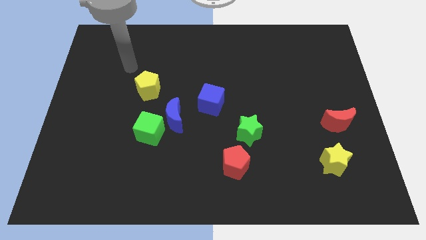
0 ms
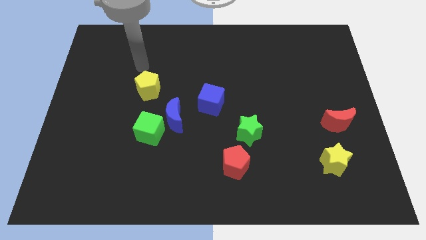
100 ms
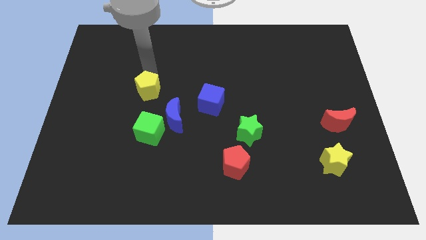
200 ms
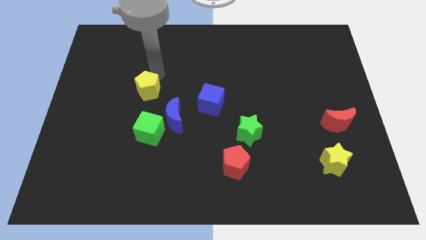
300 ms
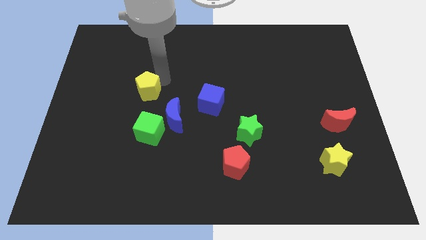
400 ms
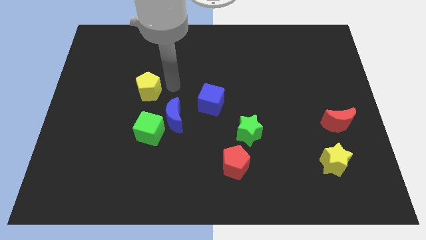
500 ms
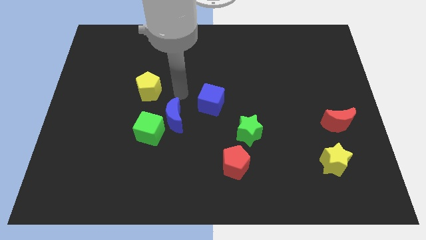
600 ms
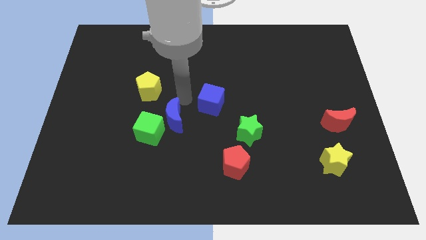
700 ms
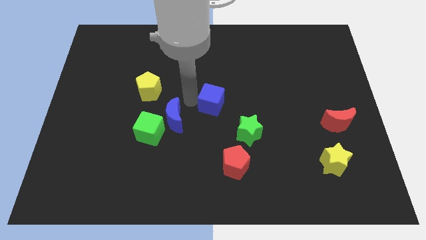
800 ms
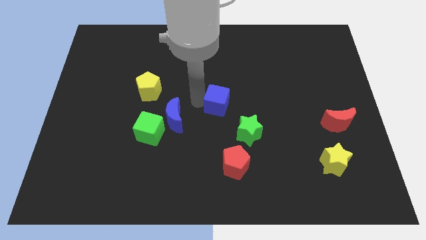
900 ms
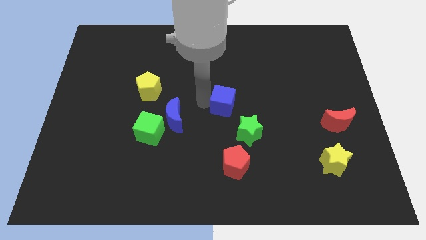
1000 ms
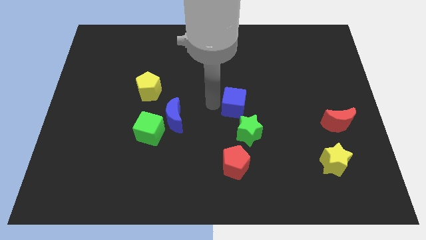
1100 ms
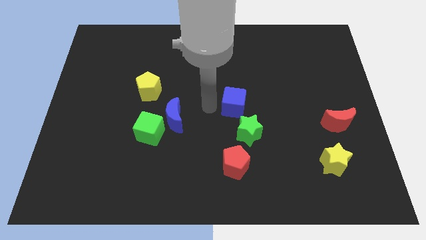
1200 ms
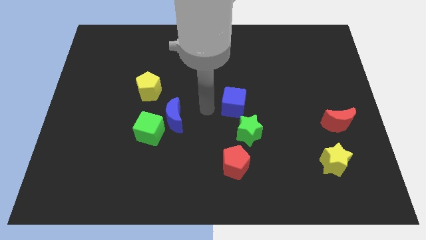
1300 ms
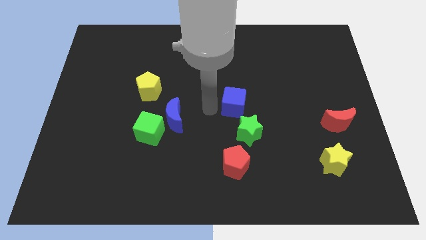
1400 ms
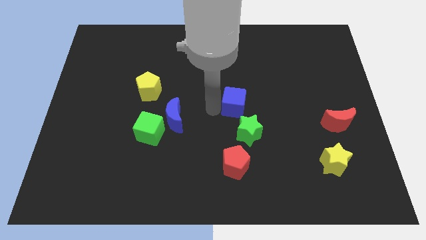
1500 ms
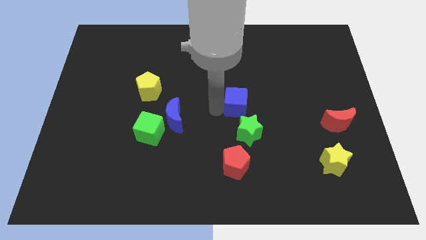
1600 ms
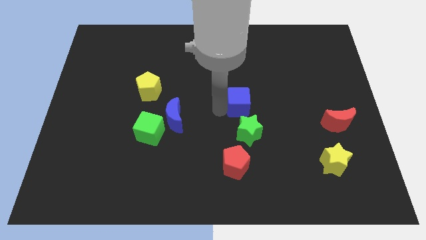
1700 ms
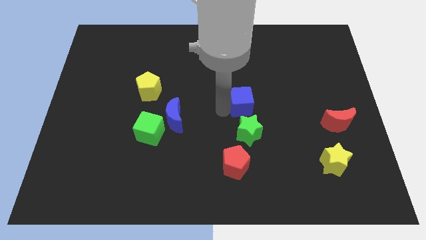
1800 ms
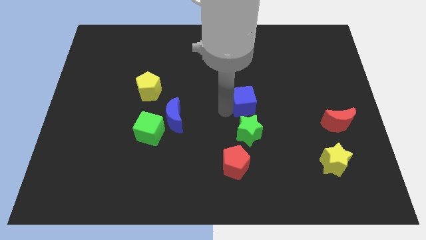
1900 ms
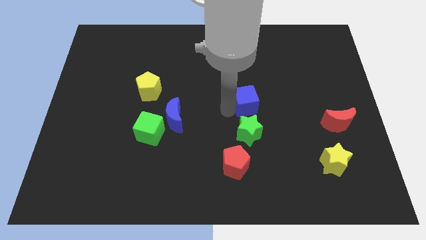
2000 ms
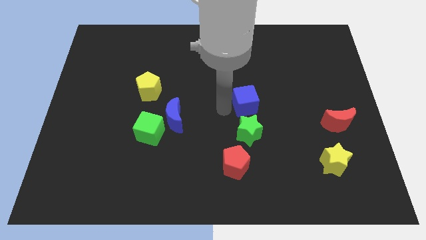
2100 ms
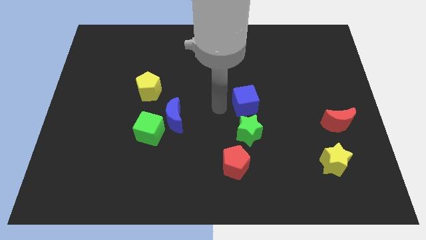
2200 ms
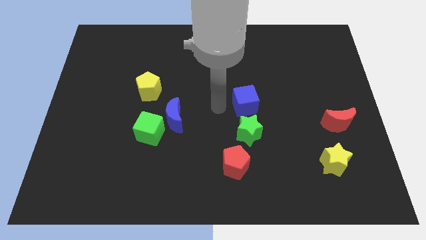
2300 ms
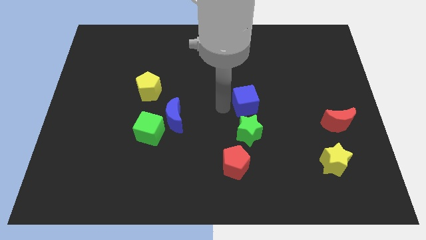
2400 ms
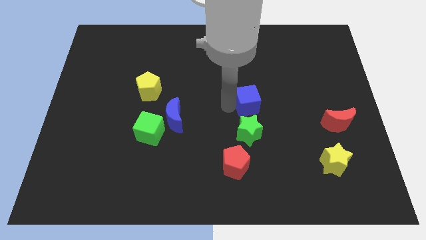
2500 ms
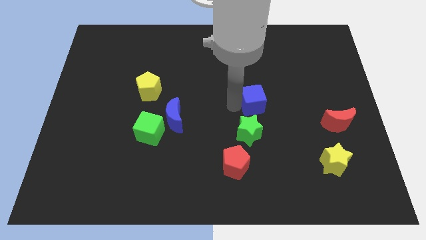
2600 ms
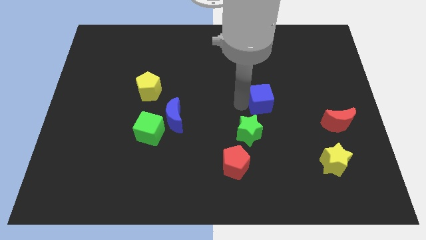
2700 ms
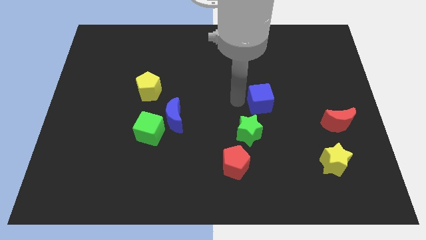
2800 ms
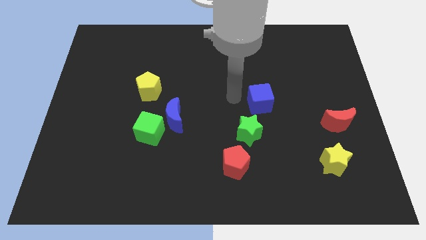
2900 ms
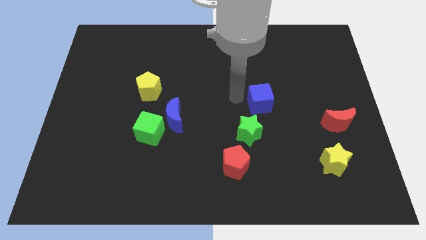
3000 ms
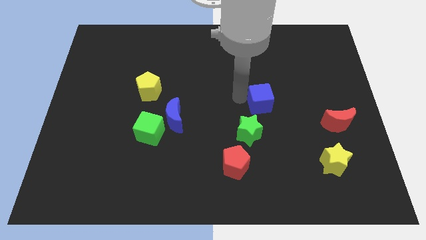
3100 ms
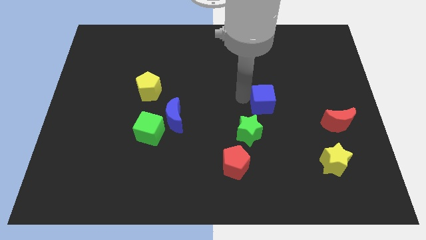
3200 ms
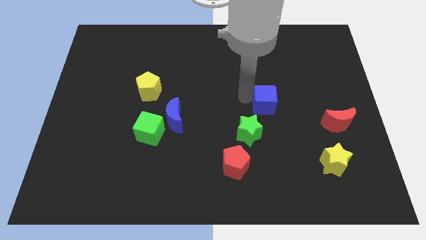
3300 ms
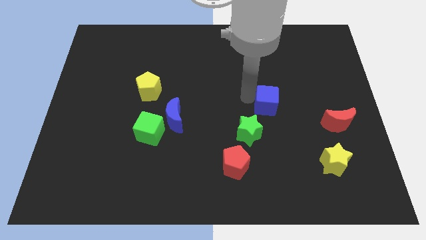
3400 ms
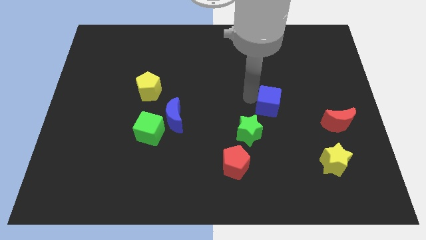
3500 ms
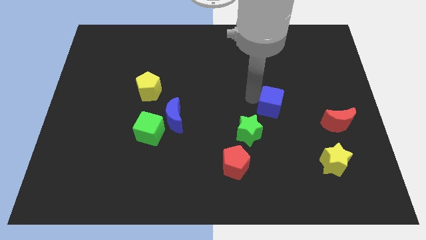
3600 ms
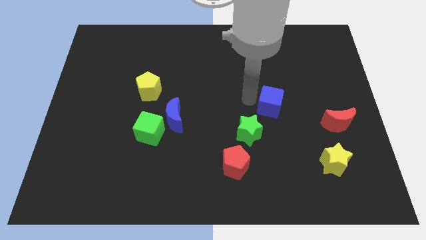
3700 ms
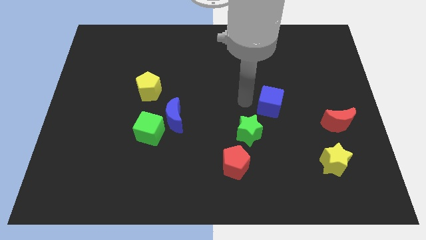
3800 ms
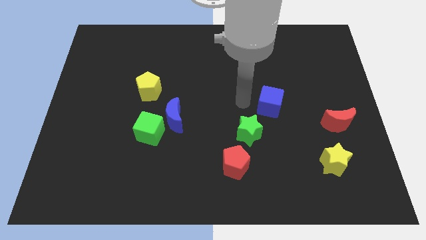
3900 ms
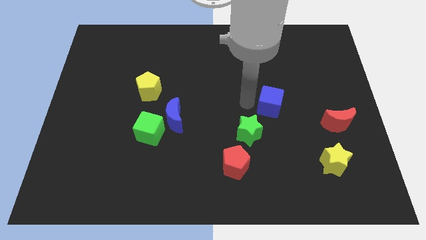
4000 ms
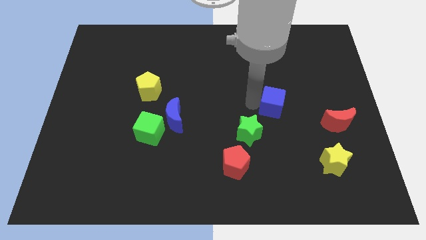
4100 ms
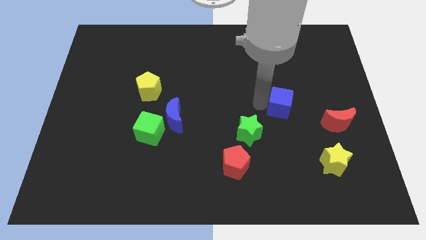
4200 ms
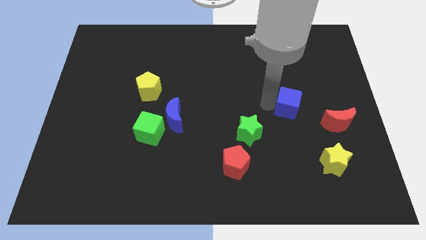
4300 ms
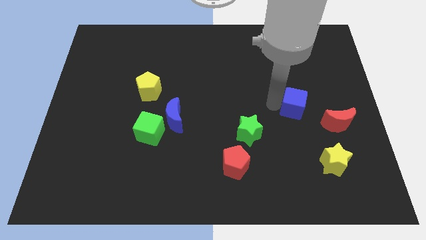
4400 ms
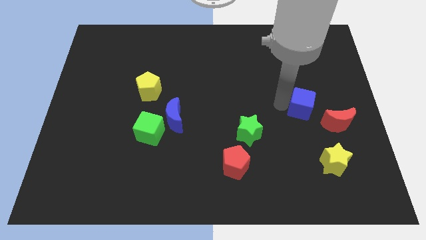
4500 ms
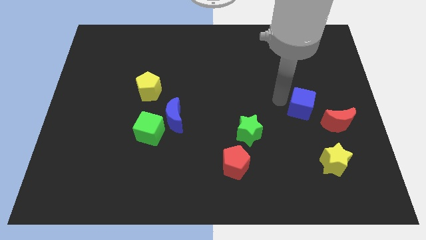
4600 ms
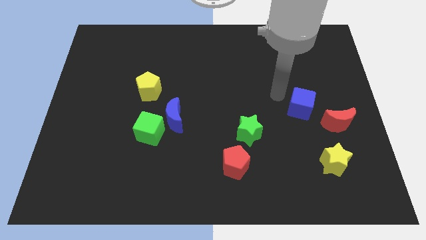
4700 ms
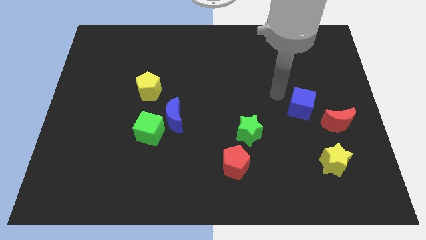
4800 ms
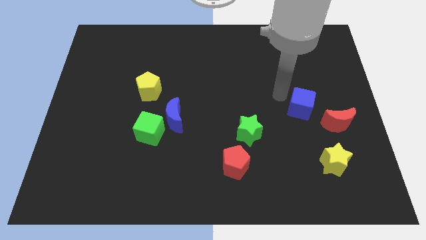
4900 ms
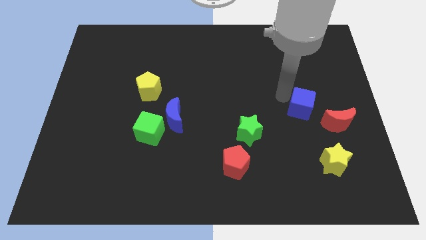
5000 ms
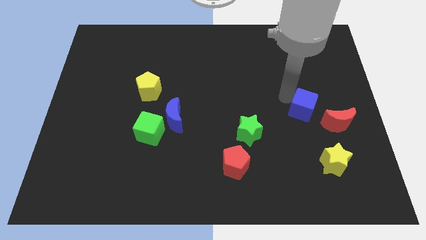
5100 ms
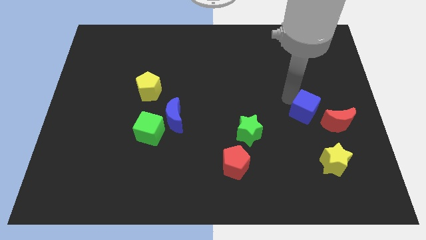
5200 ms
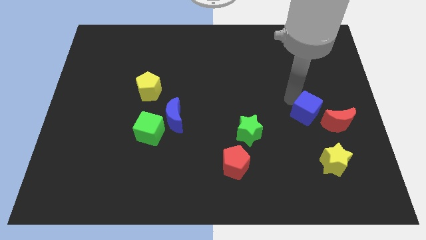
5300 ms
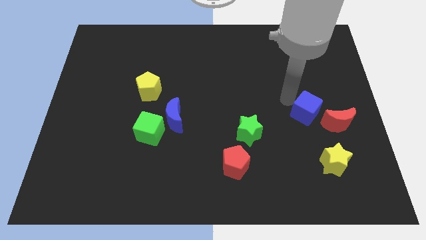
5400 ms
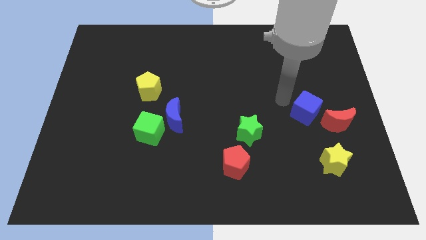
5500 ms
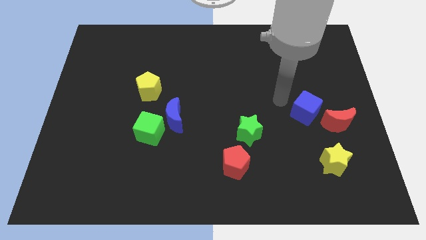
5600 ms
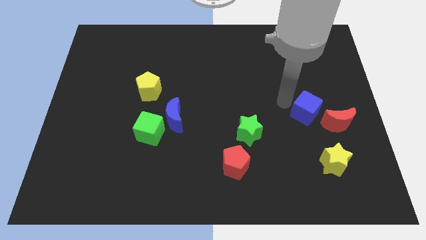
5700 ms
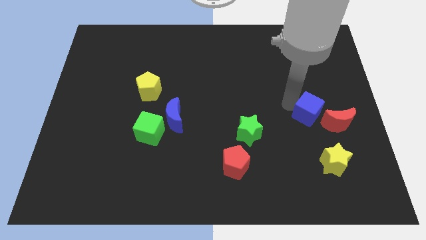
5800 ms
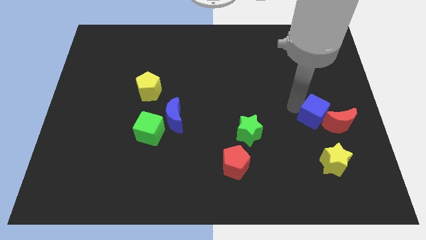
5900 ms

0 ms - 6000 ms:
move the blue cube to the red moon

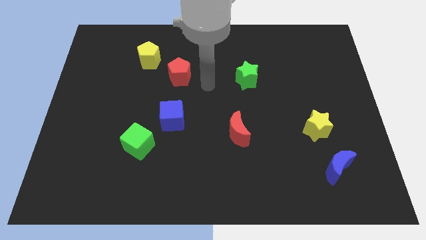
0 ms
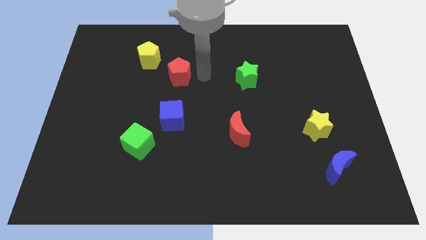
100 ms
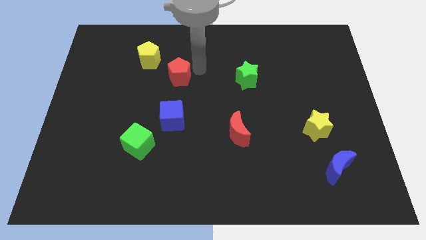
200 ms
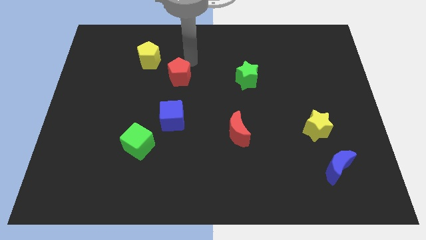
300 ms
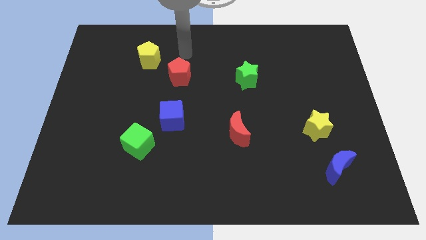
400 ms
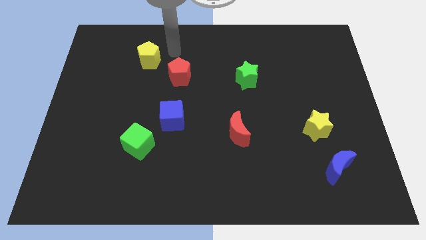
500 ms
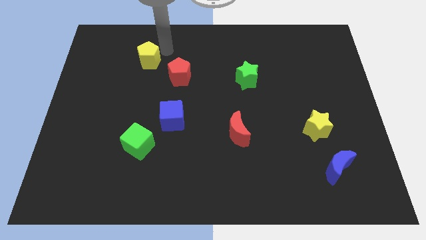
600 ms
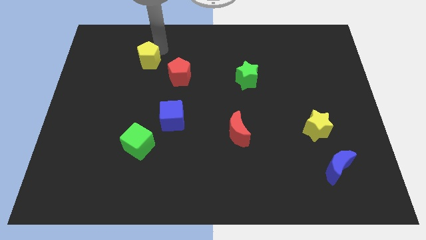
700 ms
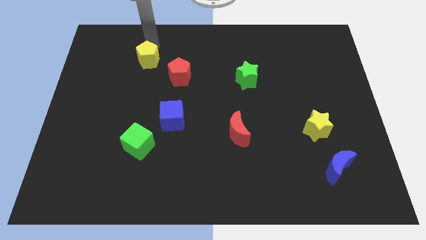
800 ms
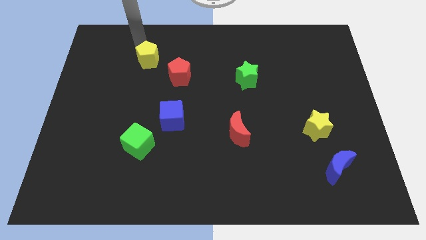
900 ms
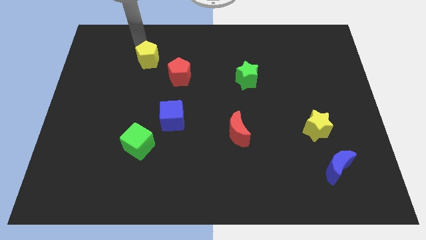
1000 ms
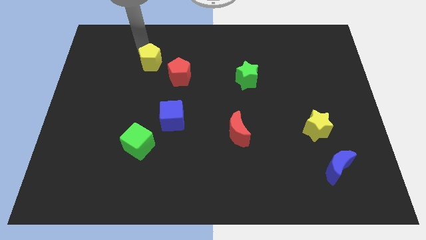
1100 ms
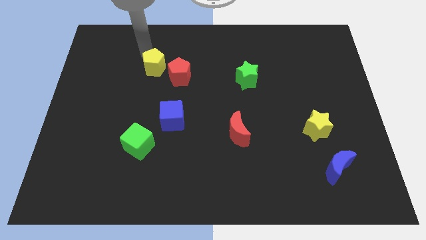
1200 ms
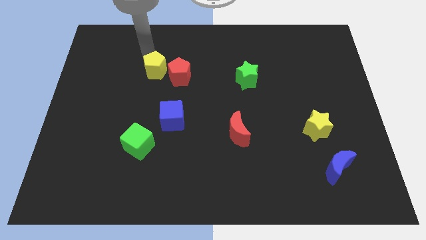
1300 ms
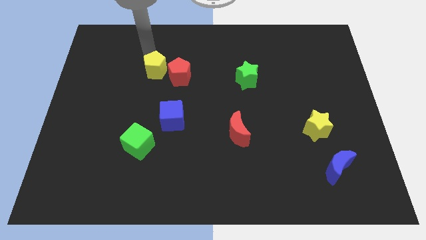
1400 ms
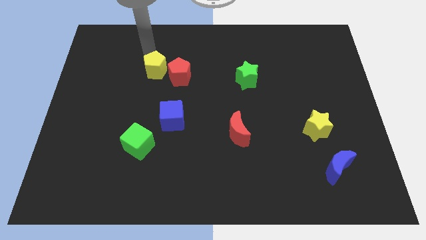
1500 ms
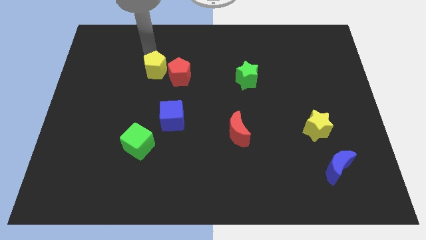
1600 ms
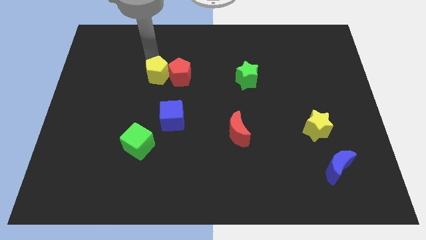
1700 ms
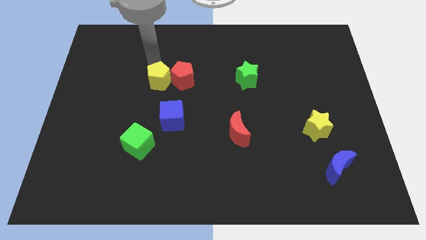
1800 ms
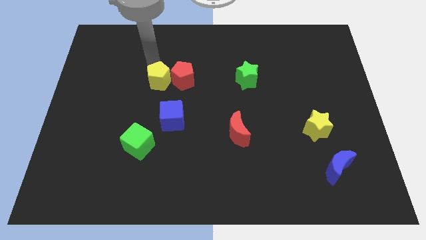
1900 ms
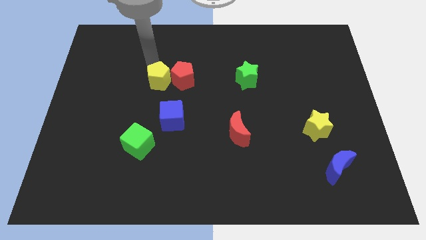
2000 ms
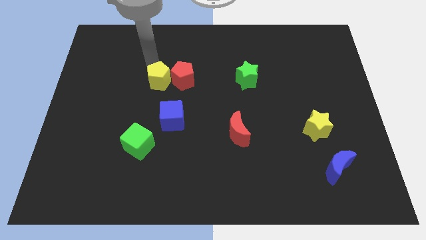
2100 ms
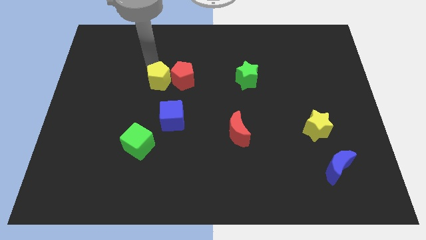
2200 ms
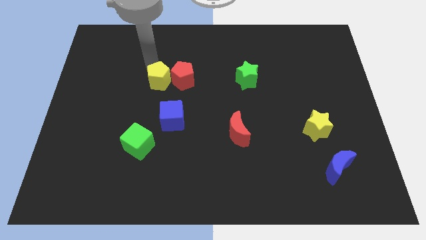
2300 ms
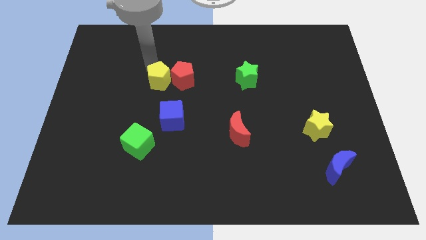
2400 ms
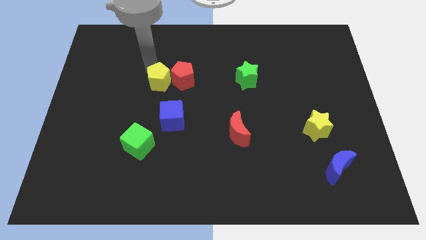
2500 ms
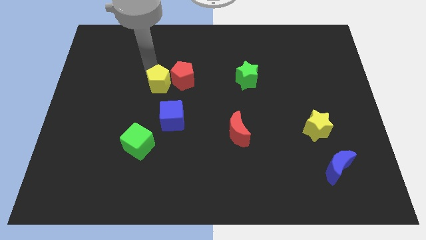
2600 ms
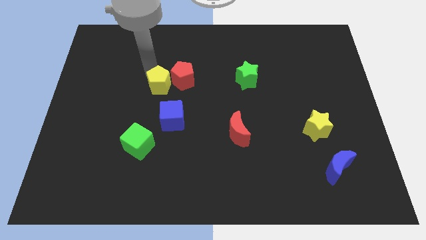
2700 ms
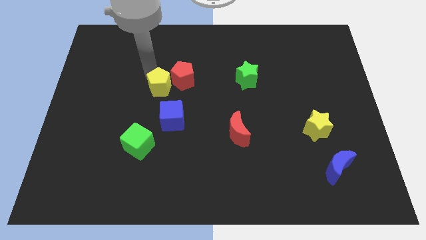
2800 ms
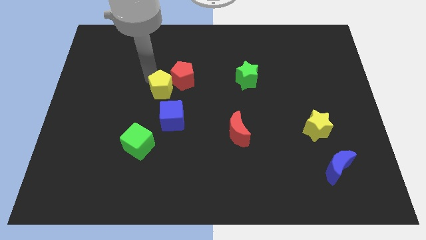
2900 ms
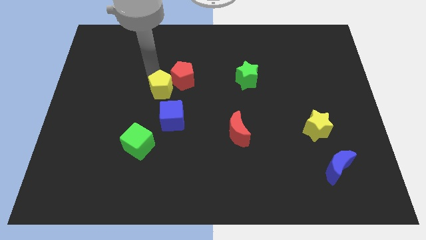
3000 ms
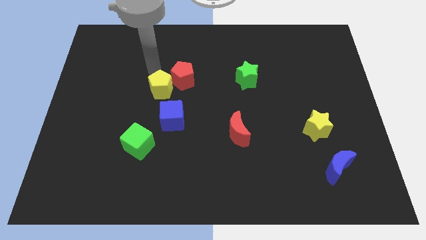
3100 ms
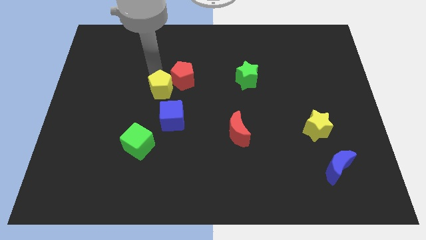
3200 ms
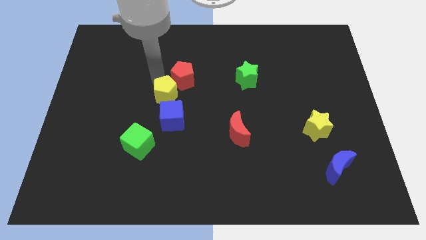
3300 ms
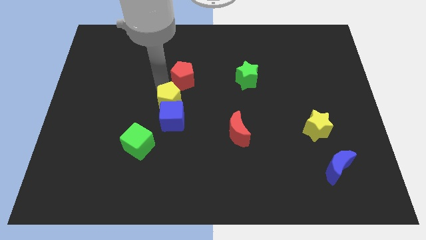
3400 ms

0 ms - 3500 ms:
move the yellow pentagon next to the blue cube
